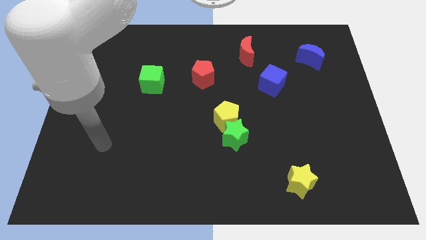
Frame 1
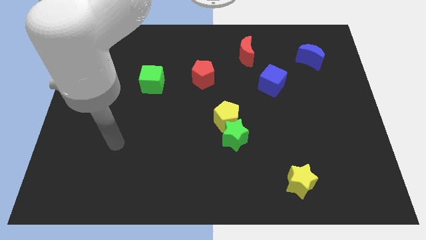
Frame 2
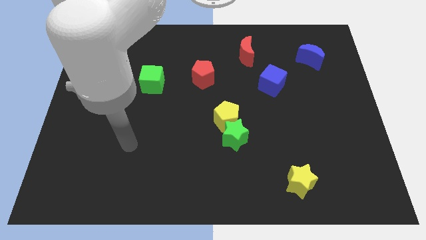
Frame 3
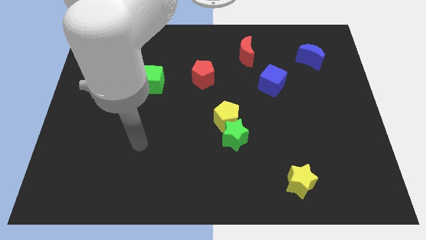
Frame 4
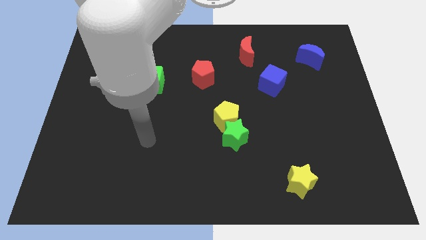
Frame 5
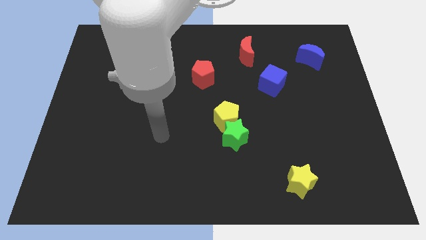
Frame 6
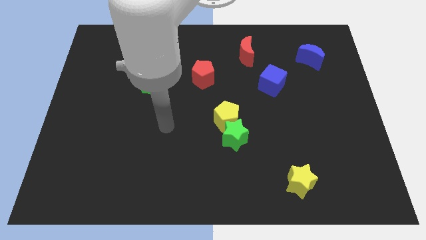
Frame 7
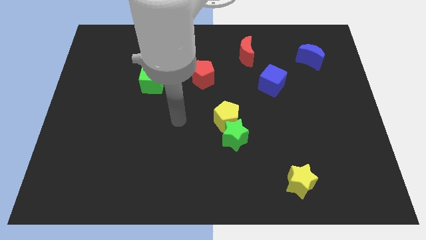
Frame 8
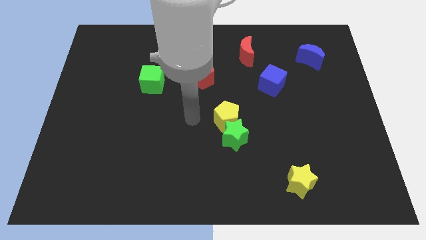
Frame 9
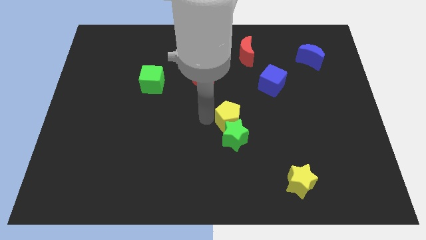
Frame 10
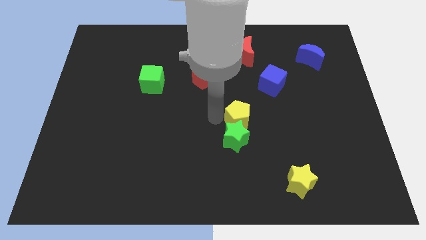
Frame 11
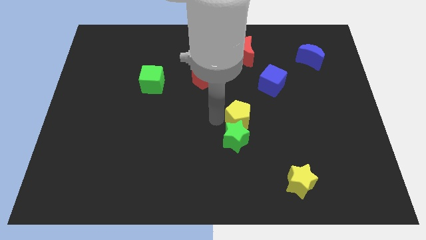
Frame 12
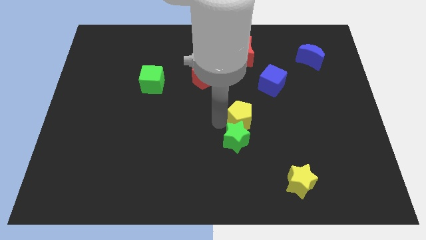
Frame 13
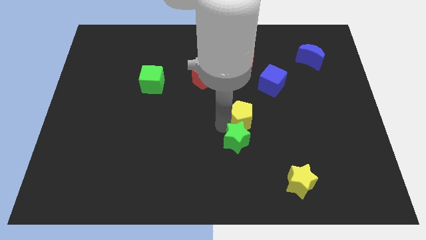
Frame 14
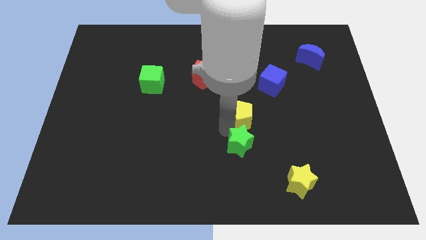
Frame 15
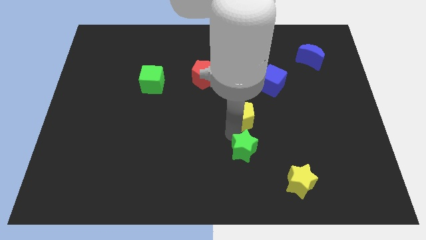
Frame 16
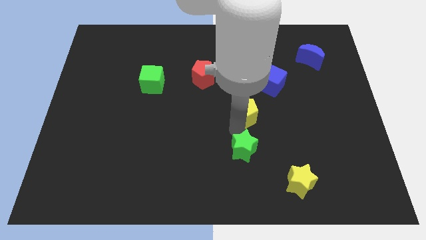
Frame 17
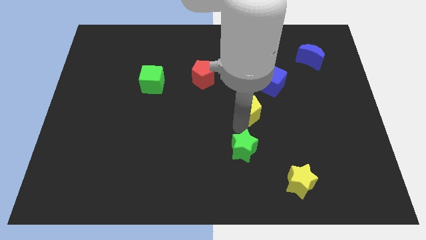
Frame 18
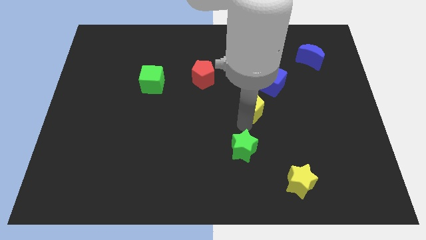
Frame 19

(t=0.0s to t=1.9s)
separate the green star from the yellow pentagon

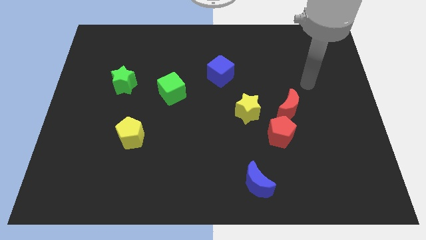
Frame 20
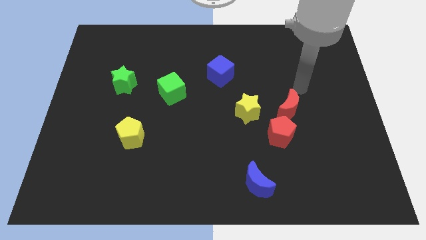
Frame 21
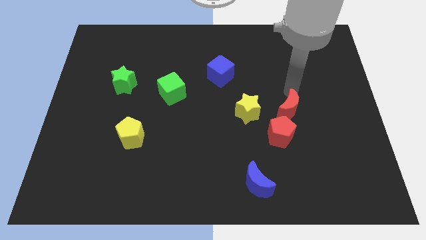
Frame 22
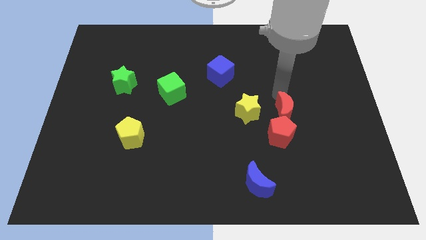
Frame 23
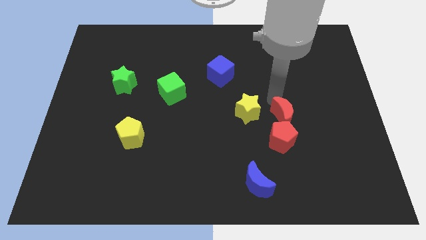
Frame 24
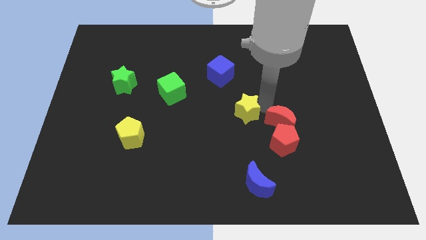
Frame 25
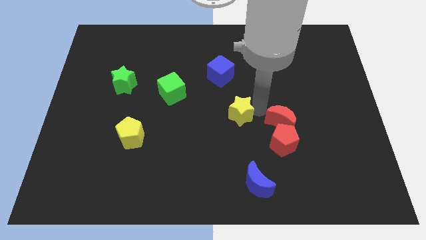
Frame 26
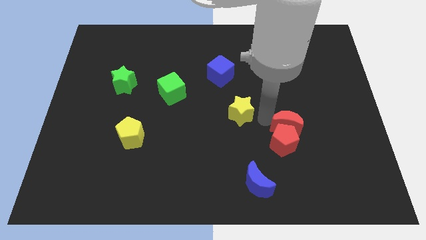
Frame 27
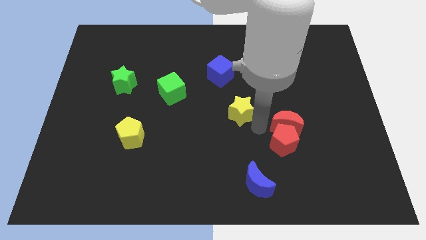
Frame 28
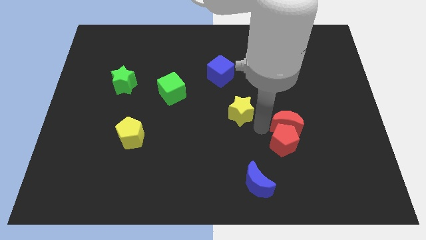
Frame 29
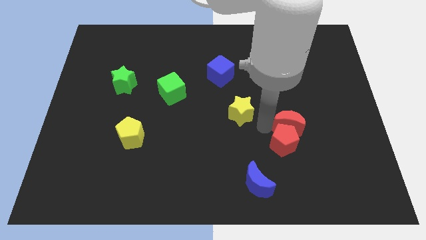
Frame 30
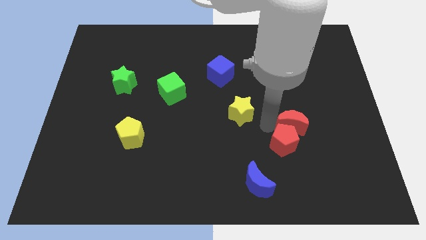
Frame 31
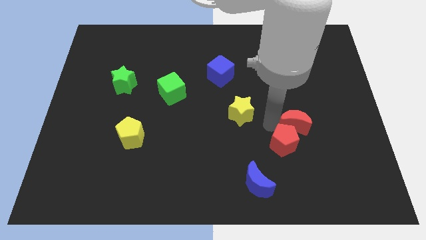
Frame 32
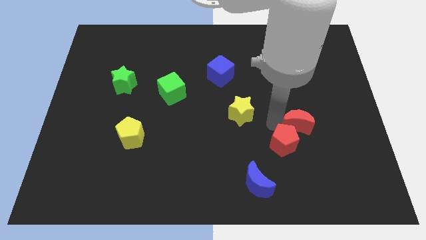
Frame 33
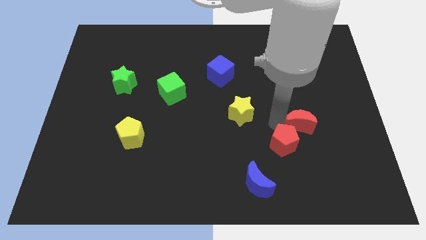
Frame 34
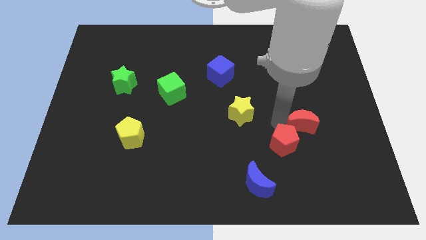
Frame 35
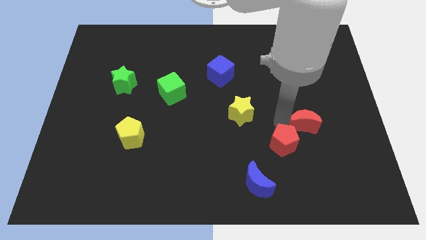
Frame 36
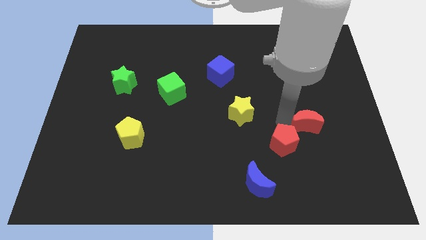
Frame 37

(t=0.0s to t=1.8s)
pull the red moon apart from the red pentagon and yellow star

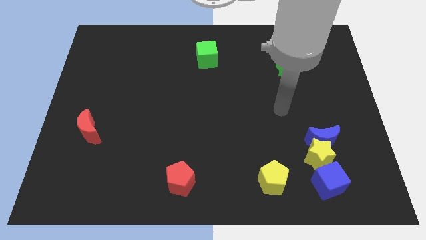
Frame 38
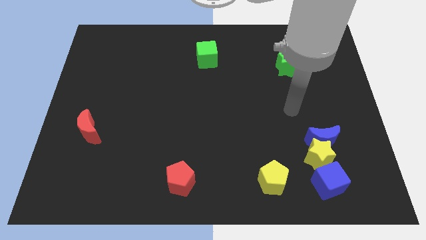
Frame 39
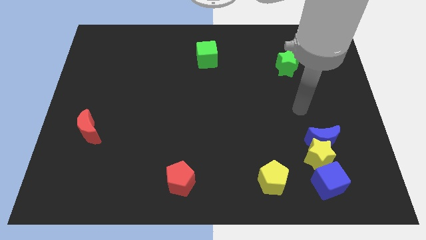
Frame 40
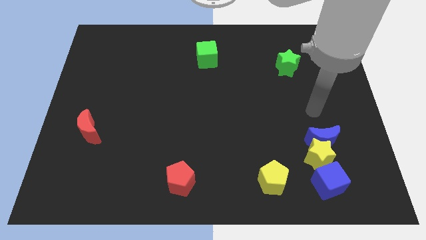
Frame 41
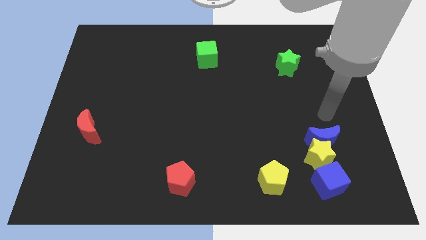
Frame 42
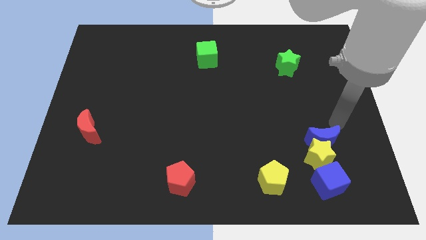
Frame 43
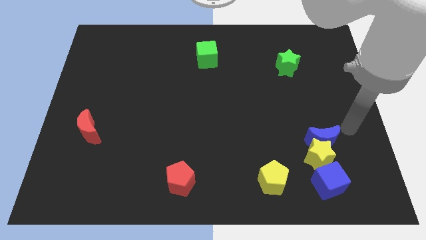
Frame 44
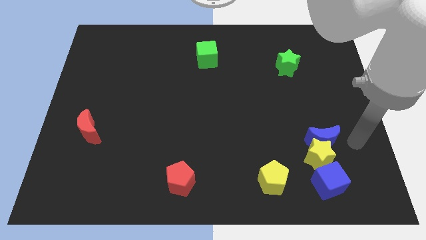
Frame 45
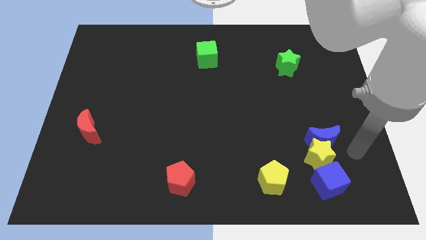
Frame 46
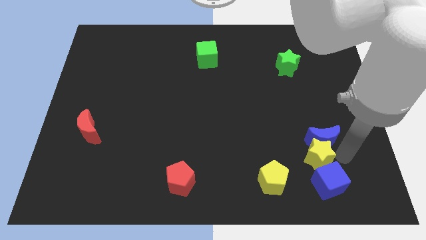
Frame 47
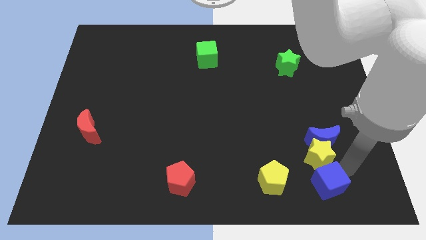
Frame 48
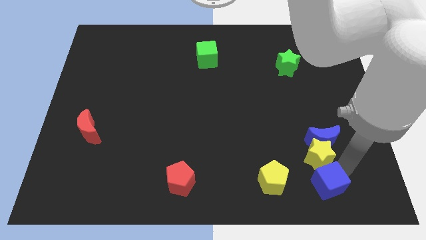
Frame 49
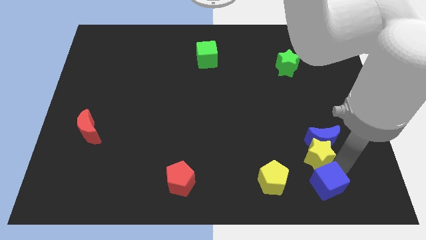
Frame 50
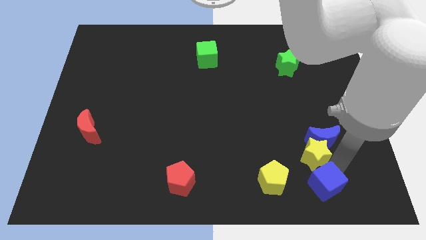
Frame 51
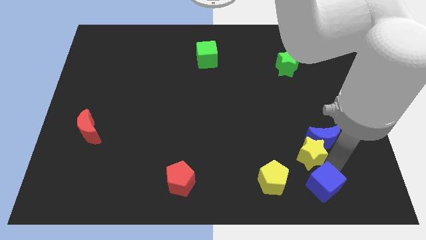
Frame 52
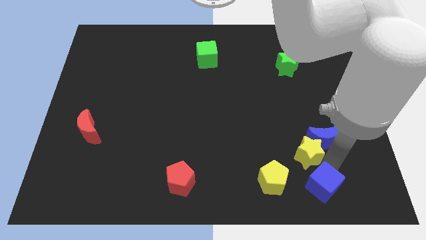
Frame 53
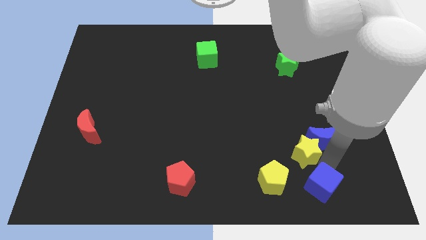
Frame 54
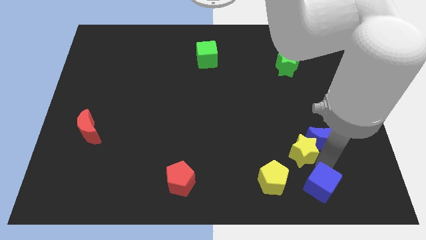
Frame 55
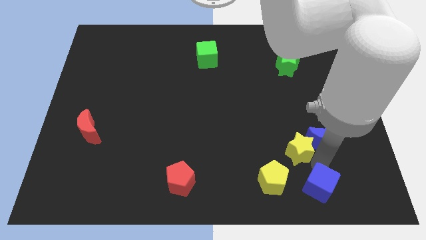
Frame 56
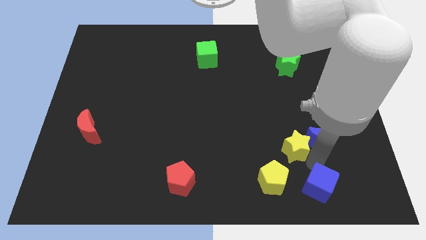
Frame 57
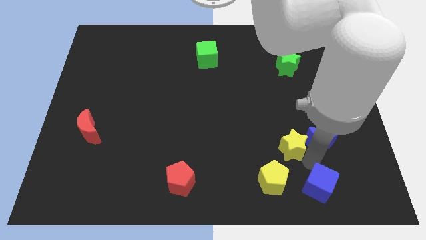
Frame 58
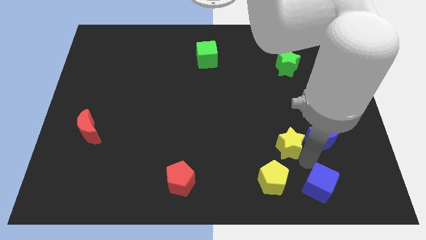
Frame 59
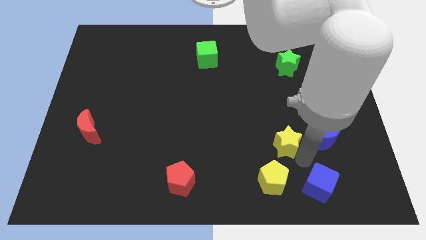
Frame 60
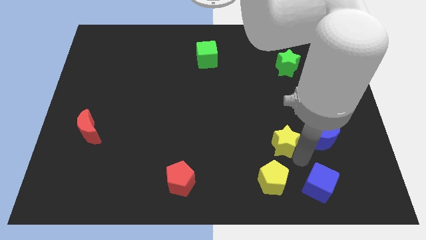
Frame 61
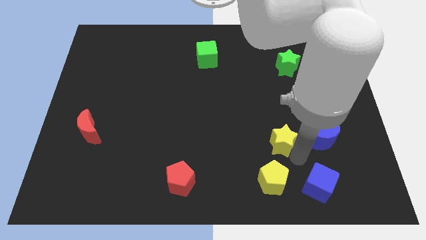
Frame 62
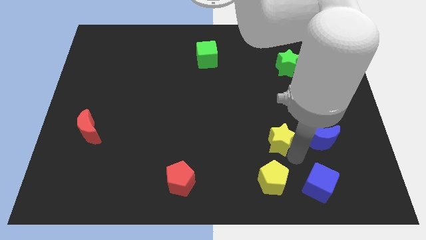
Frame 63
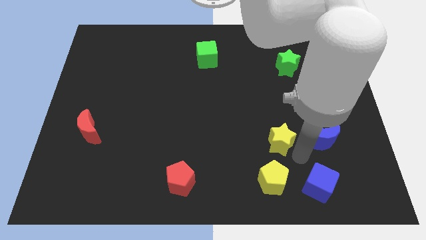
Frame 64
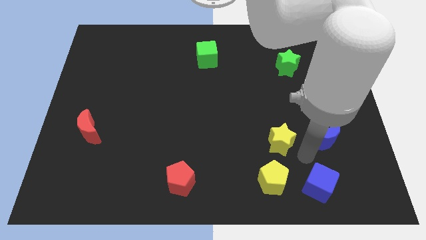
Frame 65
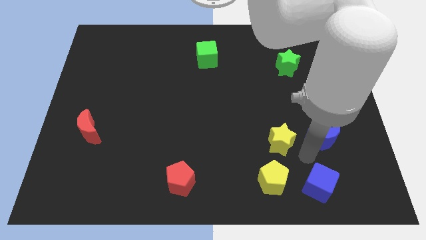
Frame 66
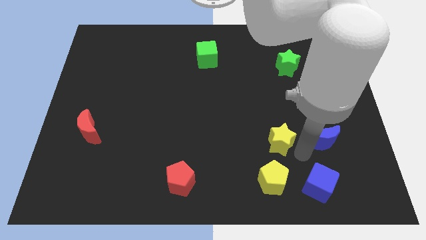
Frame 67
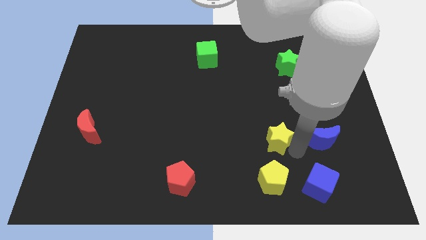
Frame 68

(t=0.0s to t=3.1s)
move the yellow star away from the blue moon and blue cube

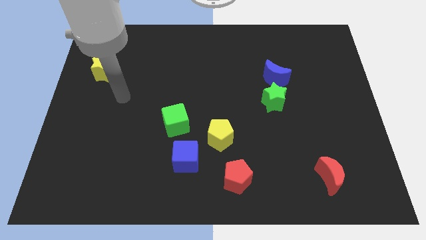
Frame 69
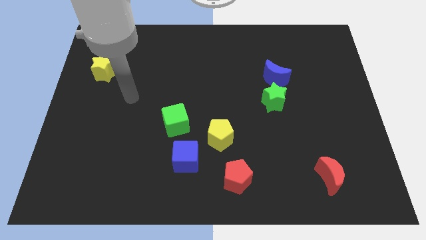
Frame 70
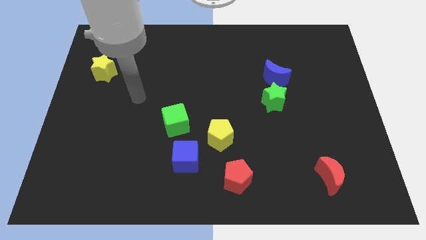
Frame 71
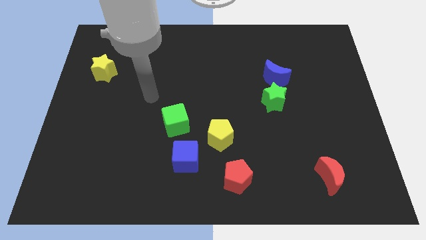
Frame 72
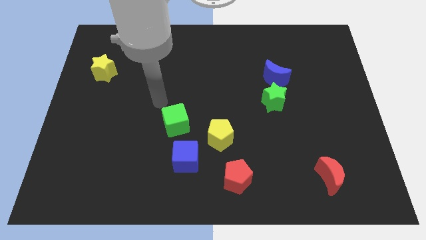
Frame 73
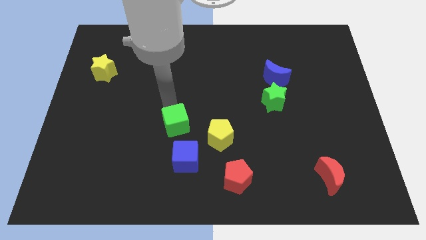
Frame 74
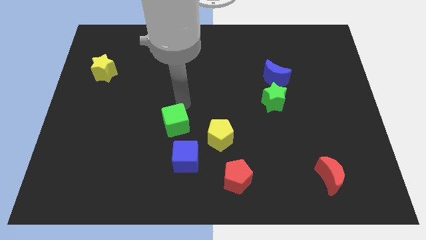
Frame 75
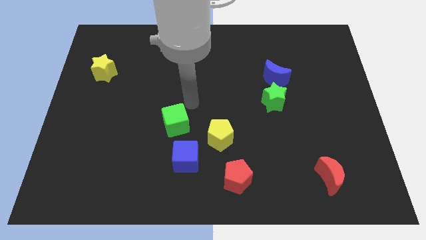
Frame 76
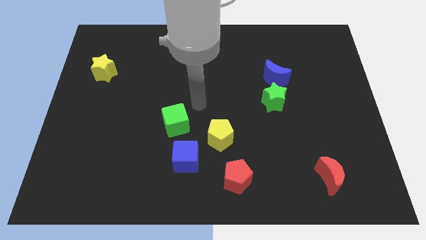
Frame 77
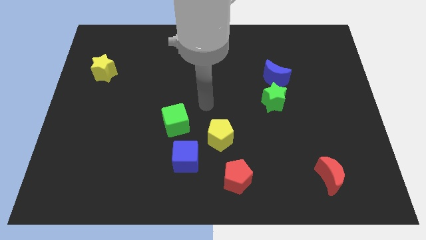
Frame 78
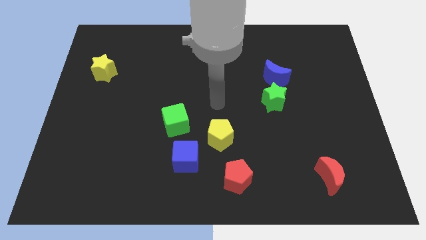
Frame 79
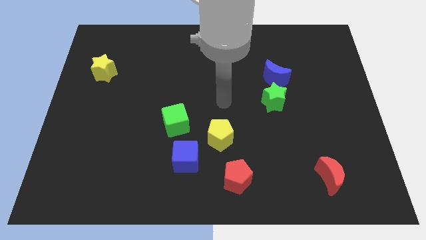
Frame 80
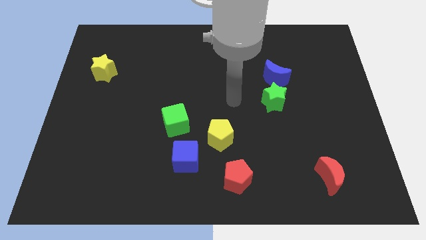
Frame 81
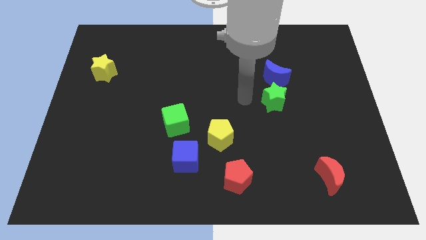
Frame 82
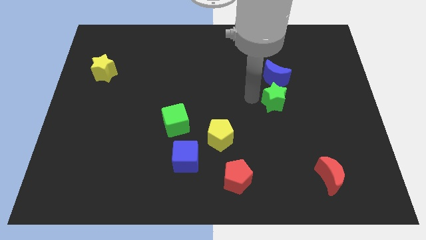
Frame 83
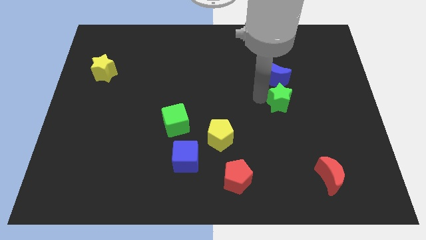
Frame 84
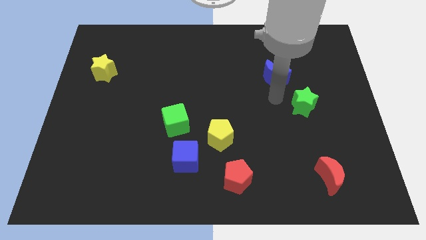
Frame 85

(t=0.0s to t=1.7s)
separate the blue moon from the green star

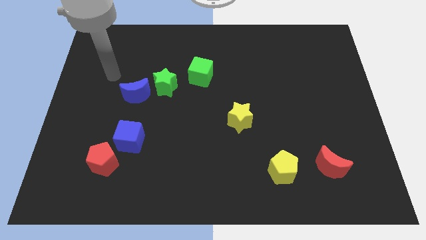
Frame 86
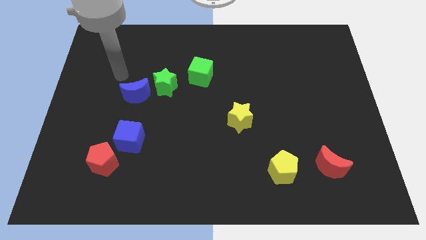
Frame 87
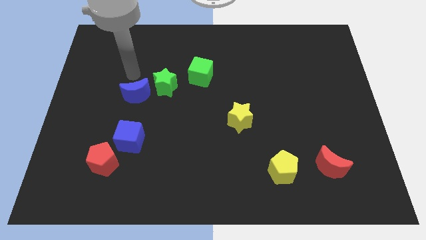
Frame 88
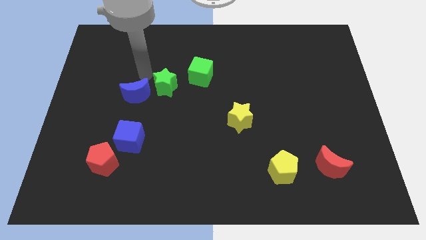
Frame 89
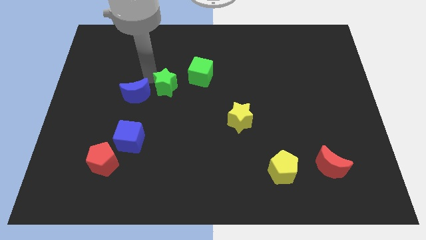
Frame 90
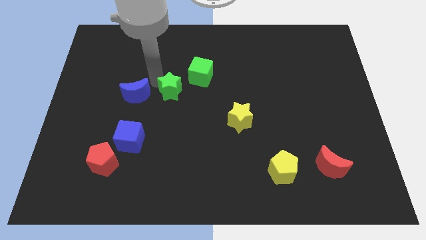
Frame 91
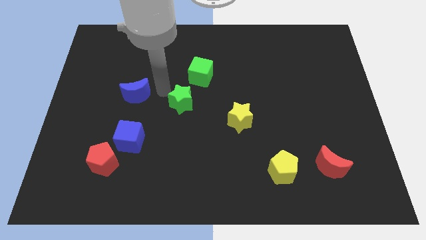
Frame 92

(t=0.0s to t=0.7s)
move the blue moon away from the green star
